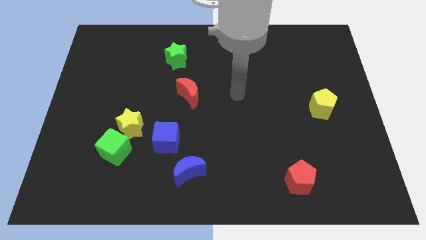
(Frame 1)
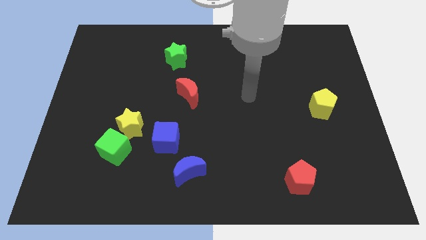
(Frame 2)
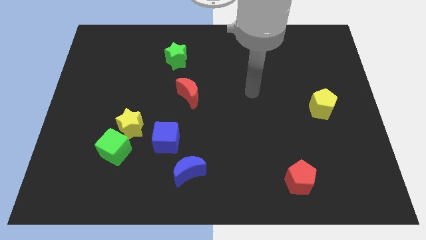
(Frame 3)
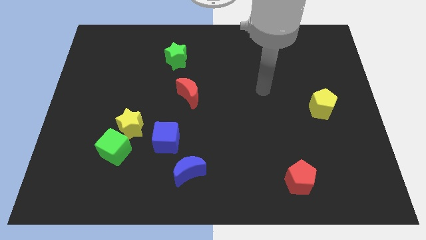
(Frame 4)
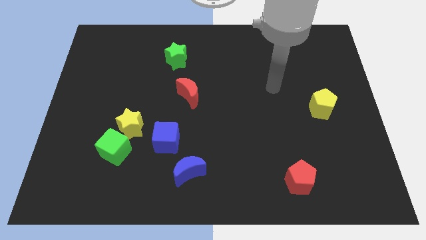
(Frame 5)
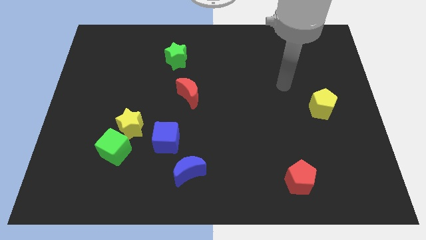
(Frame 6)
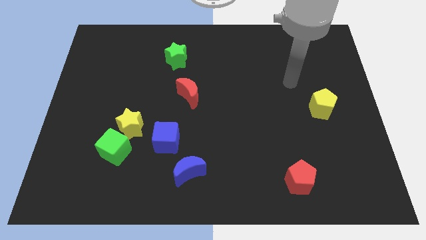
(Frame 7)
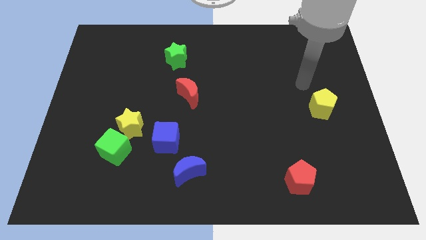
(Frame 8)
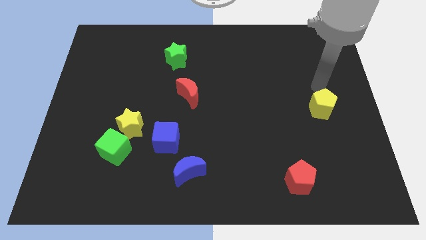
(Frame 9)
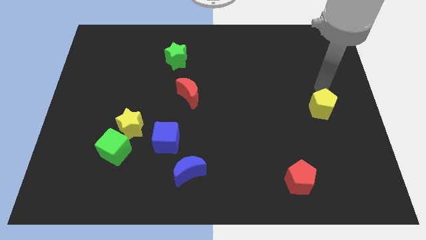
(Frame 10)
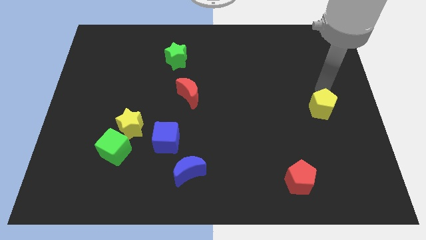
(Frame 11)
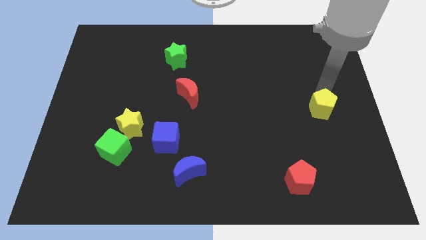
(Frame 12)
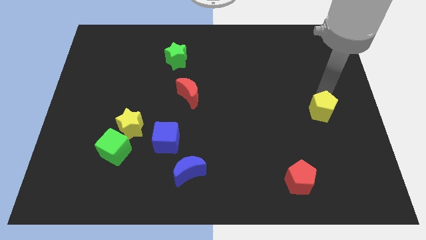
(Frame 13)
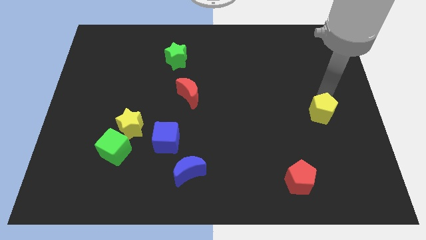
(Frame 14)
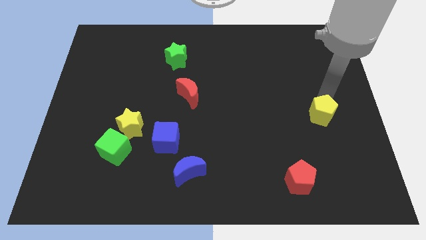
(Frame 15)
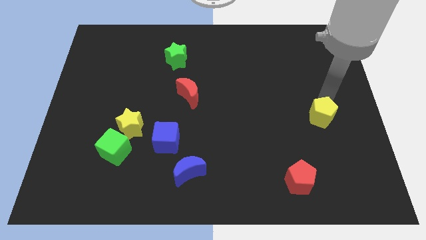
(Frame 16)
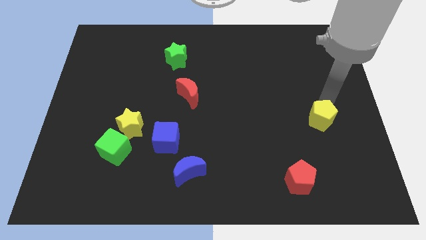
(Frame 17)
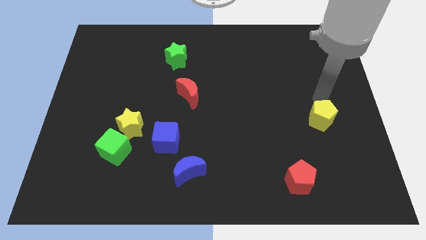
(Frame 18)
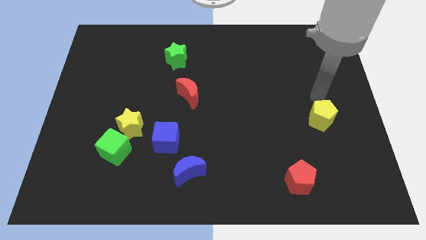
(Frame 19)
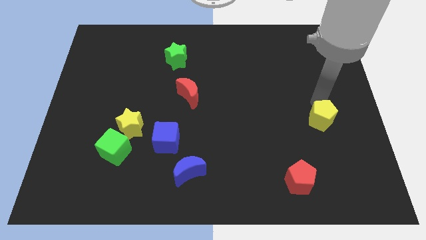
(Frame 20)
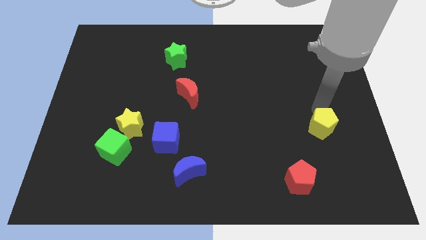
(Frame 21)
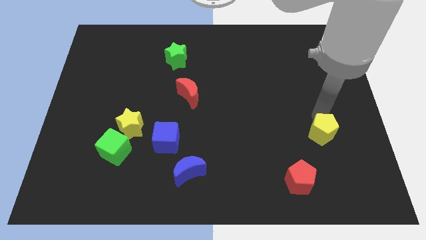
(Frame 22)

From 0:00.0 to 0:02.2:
slightly push the yellow pentagon down

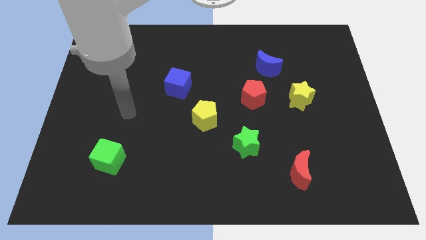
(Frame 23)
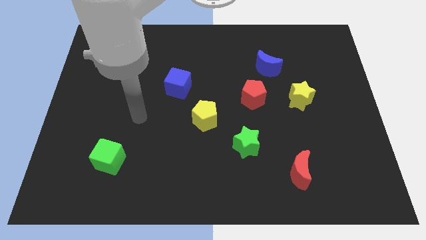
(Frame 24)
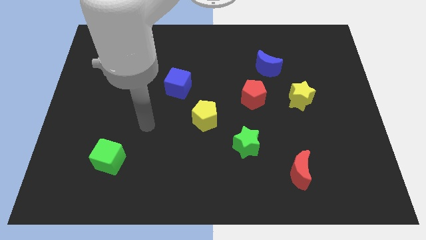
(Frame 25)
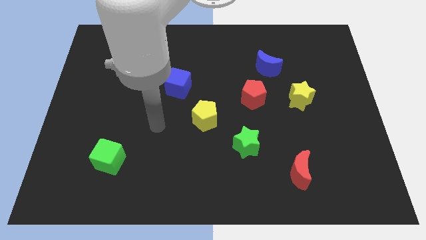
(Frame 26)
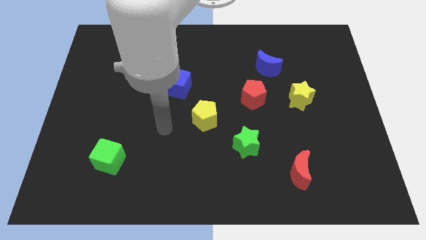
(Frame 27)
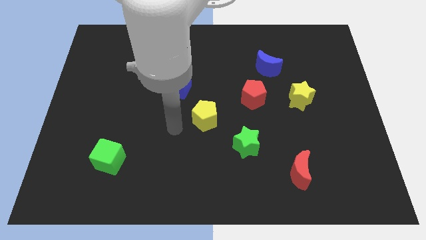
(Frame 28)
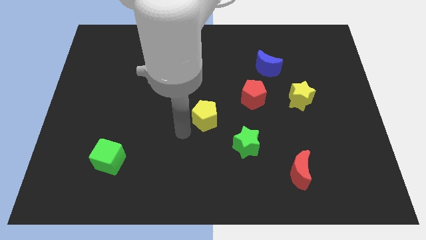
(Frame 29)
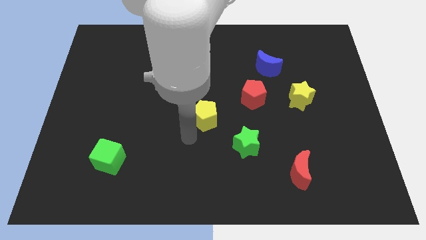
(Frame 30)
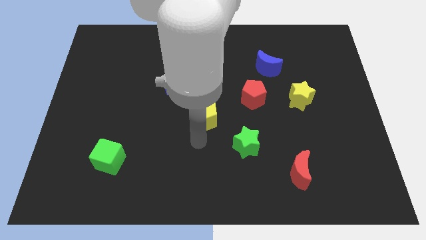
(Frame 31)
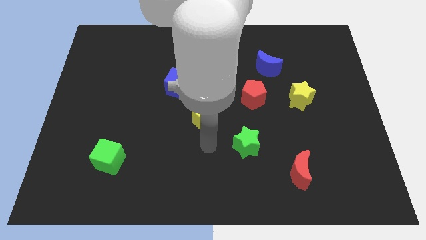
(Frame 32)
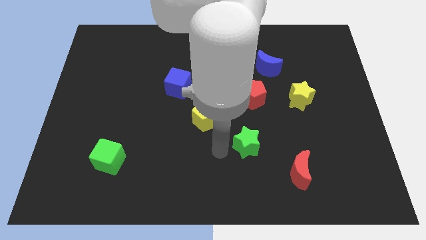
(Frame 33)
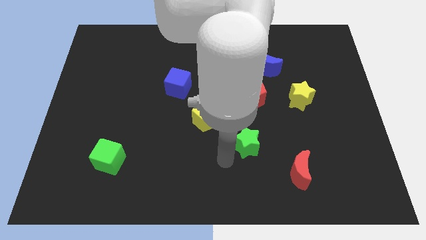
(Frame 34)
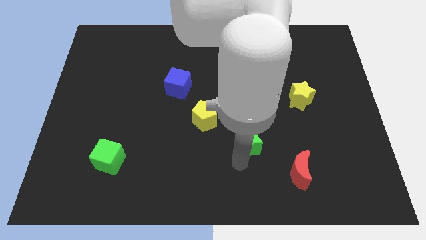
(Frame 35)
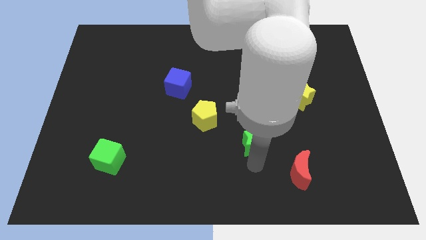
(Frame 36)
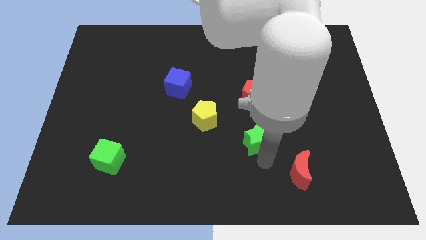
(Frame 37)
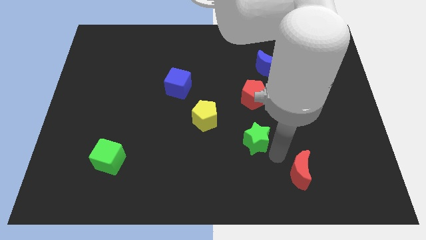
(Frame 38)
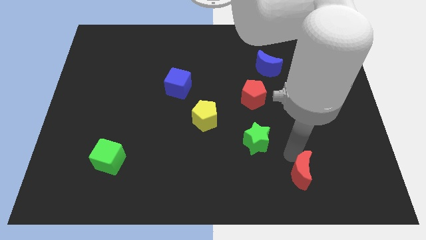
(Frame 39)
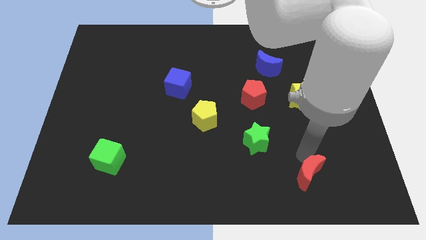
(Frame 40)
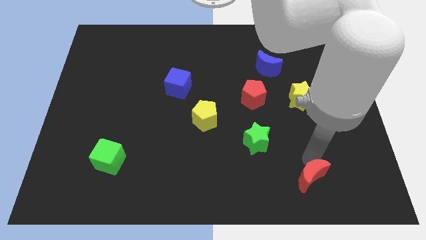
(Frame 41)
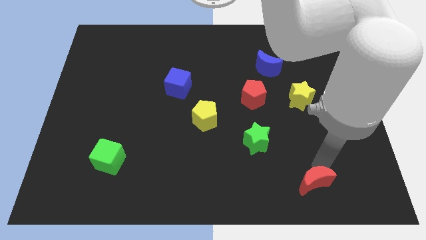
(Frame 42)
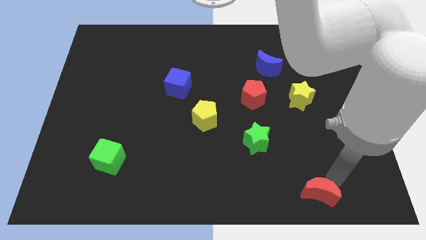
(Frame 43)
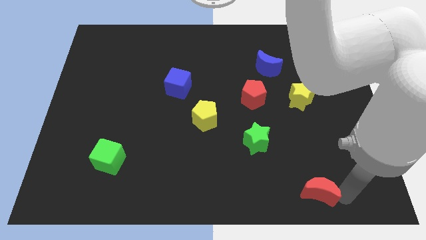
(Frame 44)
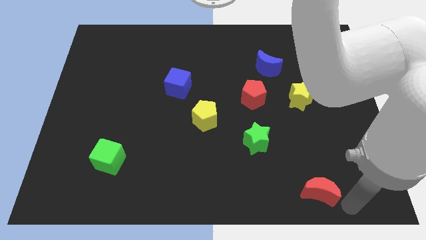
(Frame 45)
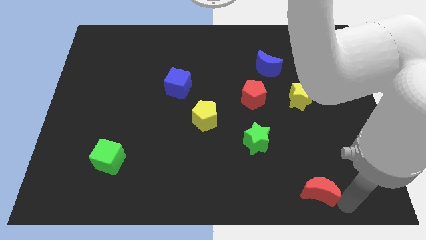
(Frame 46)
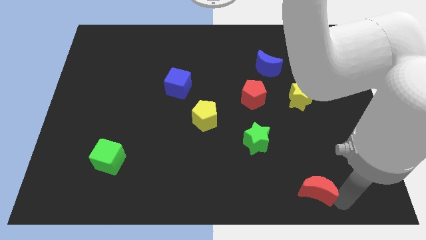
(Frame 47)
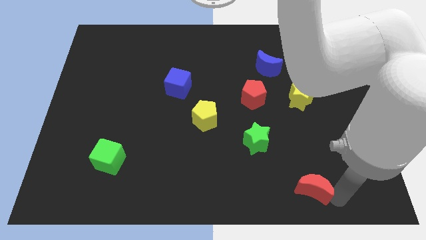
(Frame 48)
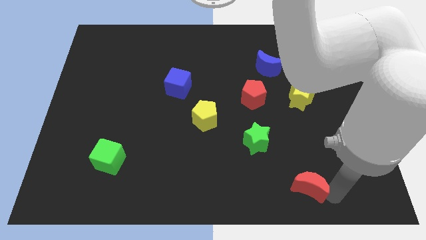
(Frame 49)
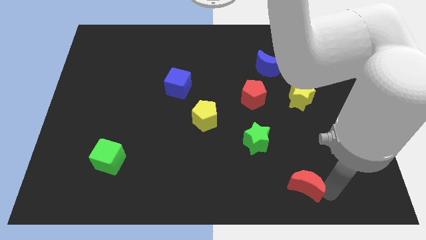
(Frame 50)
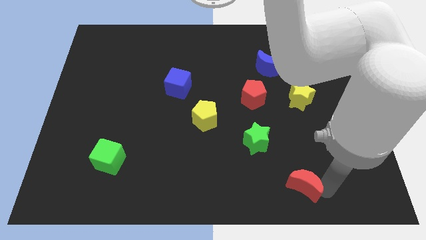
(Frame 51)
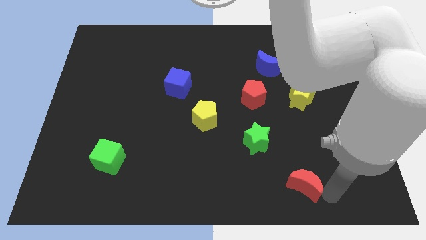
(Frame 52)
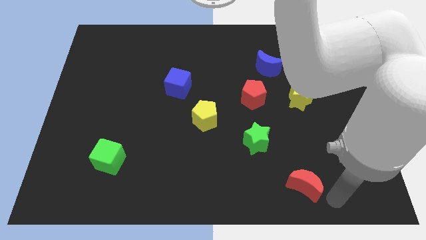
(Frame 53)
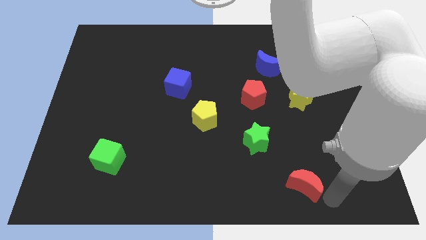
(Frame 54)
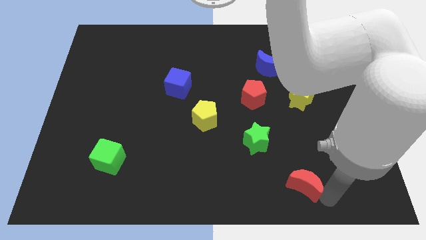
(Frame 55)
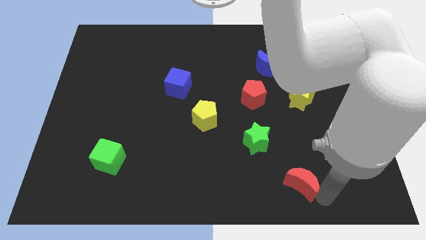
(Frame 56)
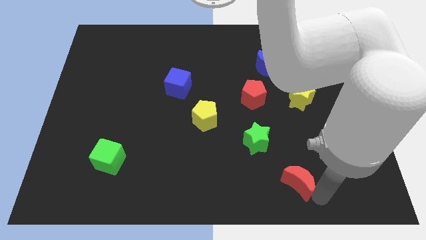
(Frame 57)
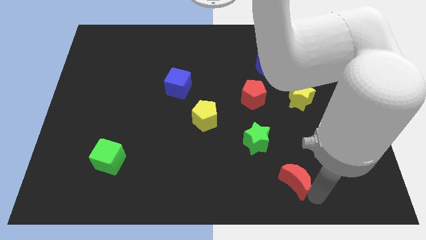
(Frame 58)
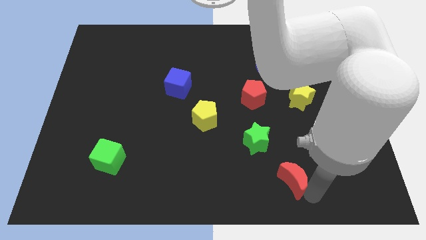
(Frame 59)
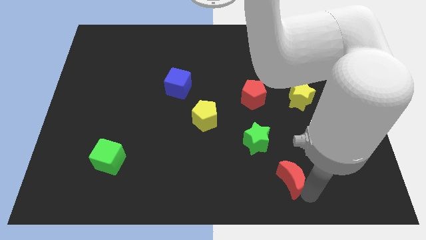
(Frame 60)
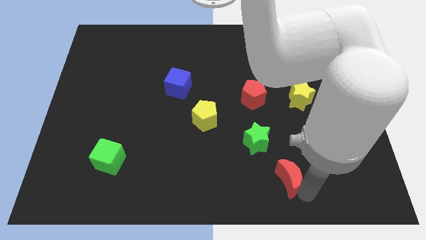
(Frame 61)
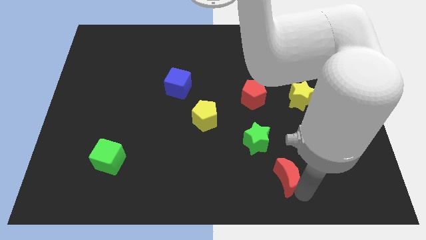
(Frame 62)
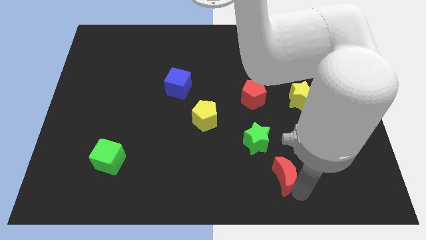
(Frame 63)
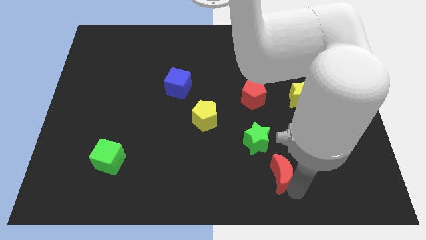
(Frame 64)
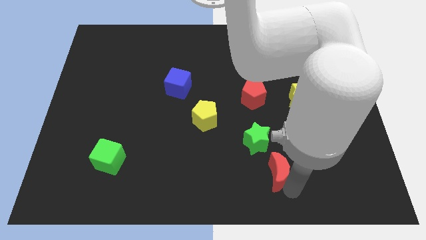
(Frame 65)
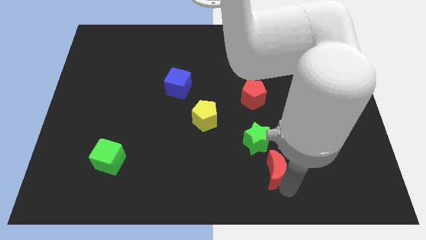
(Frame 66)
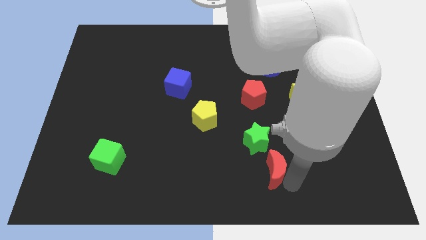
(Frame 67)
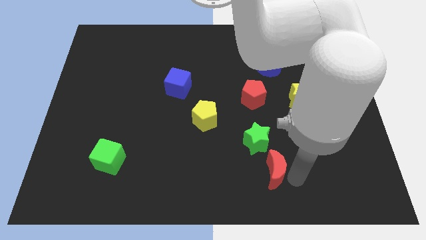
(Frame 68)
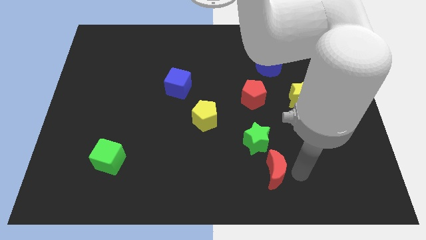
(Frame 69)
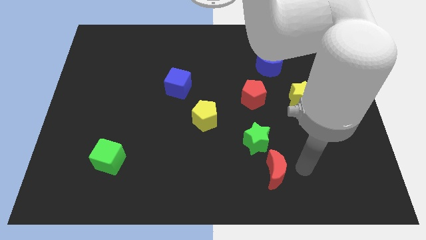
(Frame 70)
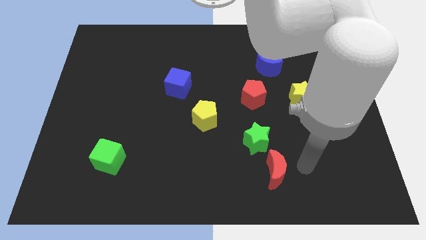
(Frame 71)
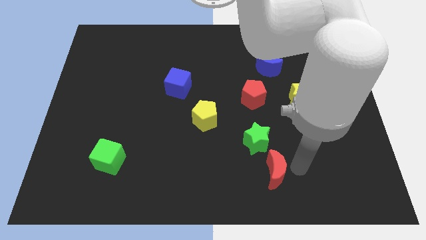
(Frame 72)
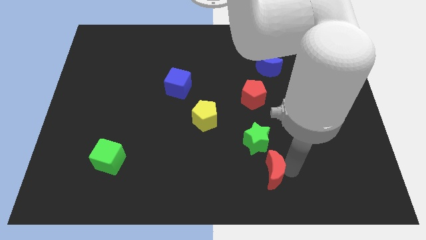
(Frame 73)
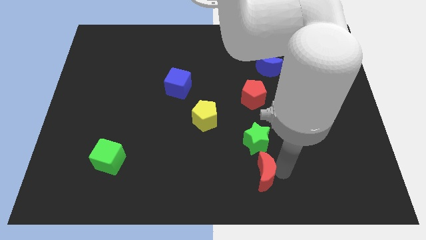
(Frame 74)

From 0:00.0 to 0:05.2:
move the red moon left a little bit

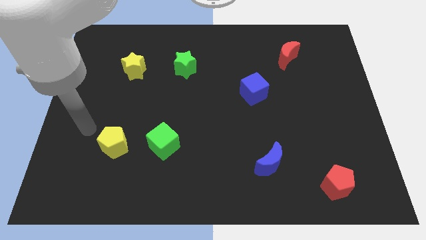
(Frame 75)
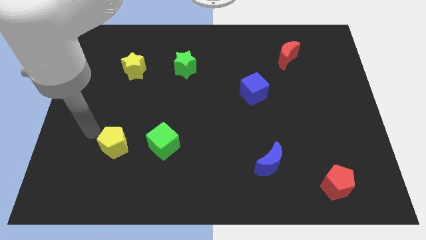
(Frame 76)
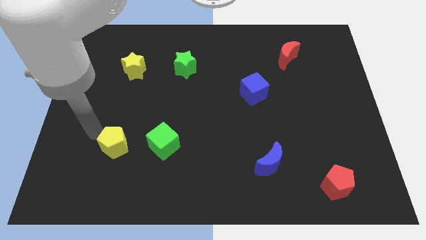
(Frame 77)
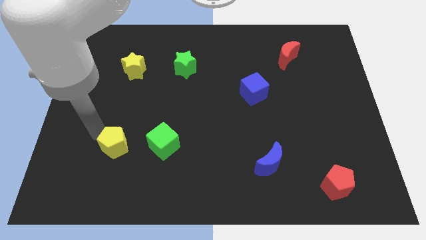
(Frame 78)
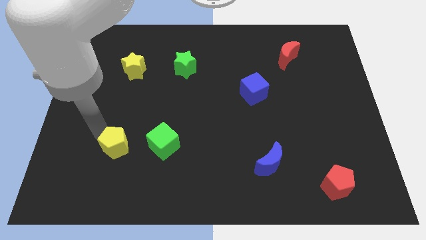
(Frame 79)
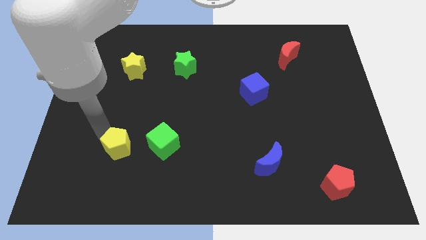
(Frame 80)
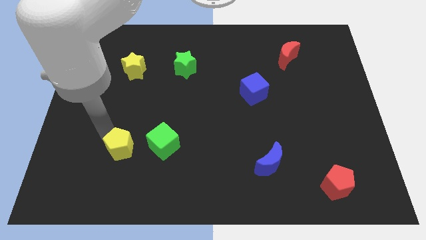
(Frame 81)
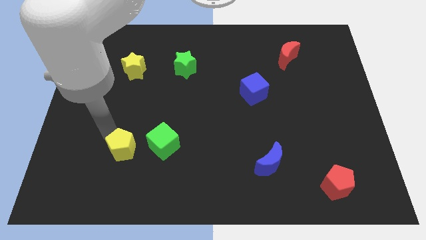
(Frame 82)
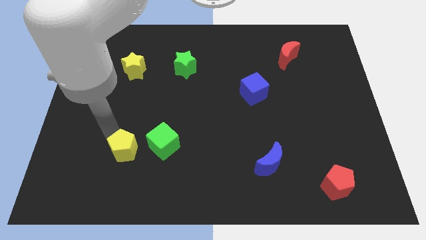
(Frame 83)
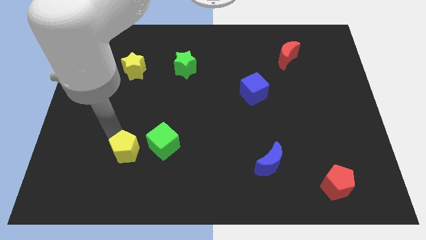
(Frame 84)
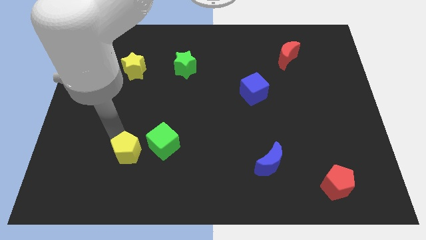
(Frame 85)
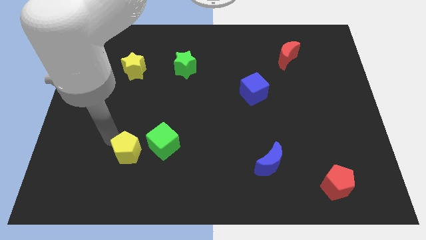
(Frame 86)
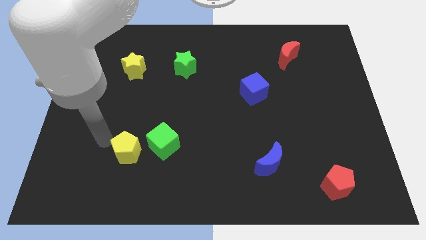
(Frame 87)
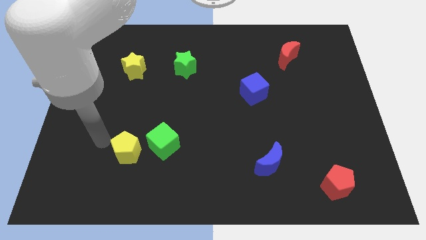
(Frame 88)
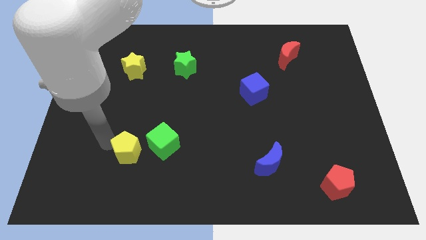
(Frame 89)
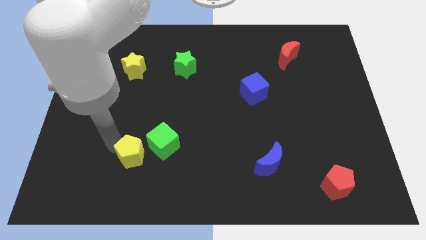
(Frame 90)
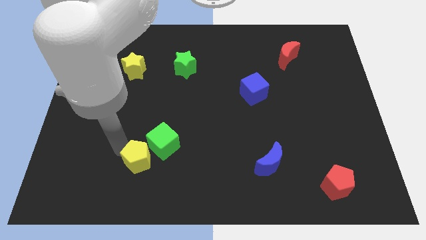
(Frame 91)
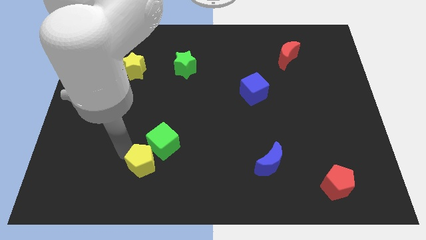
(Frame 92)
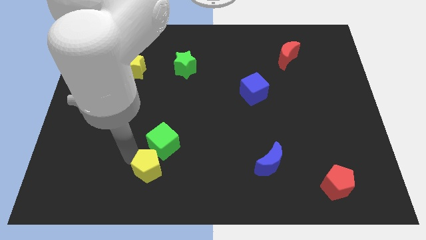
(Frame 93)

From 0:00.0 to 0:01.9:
push the yellow pentagon a bit right
